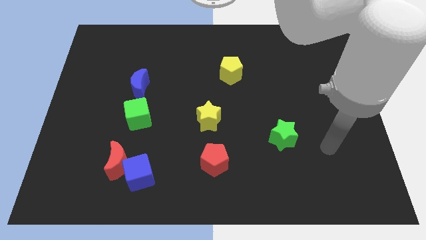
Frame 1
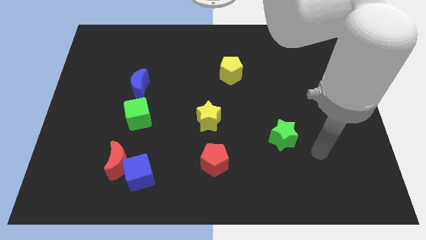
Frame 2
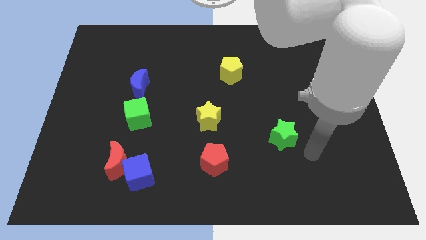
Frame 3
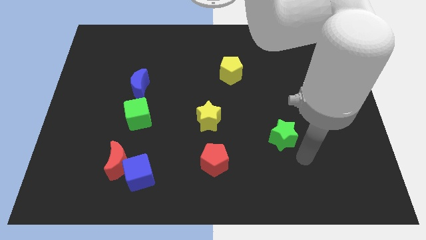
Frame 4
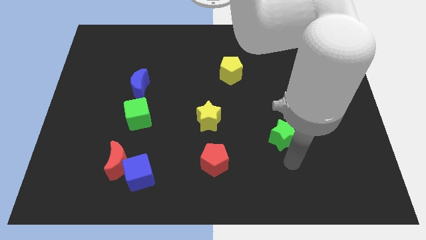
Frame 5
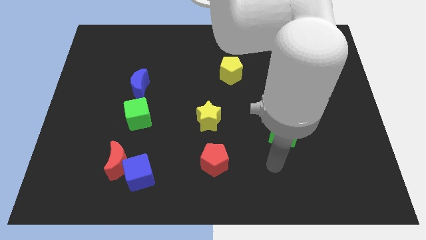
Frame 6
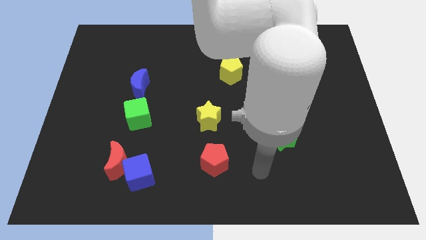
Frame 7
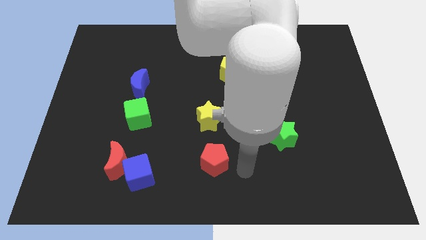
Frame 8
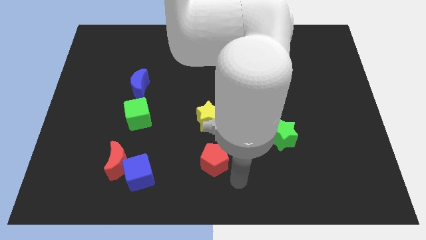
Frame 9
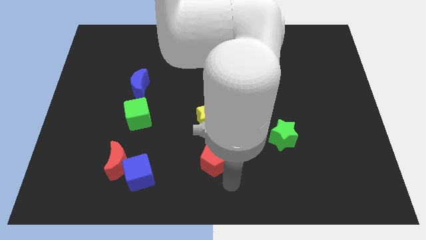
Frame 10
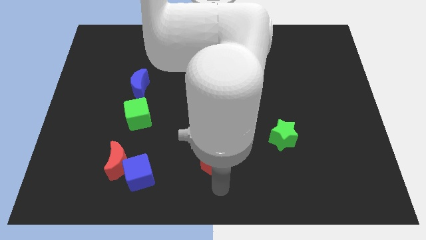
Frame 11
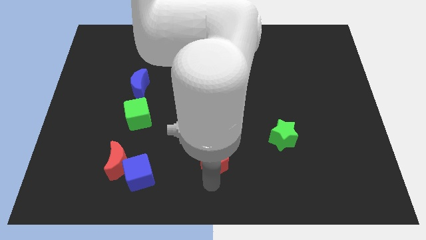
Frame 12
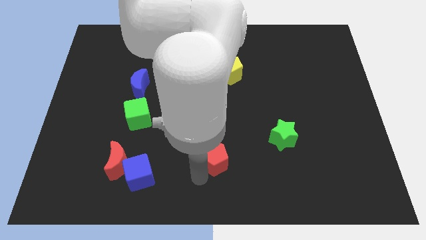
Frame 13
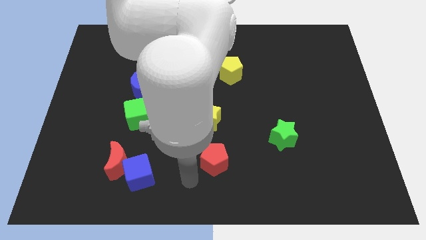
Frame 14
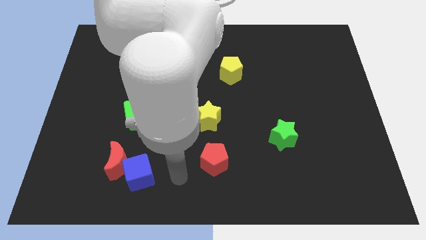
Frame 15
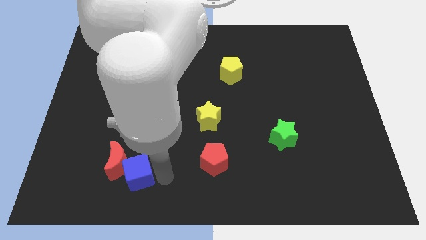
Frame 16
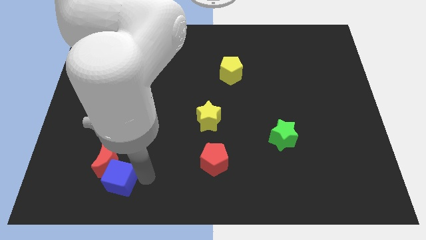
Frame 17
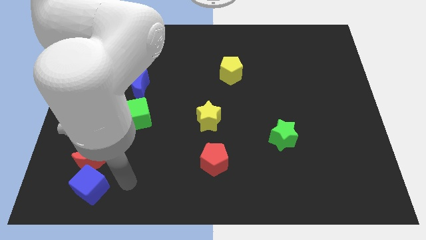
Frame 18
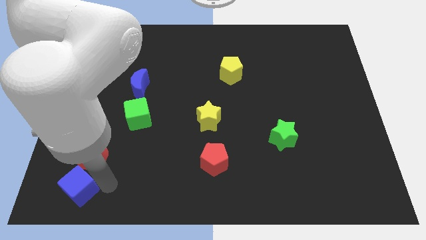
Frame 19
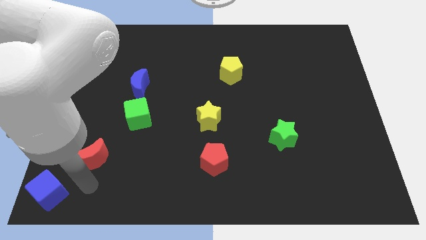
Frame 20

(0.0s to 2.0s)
move the red moon away from the blue cube

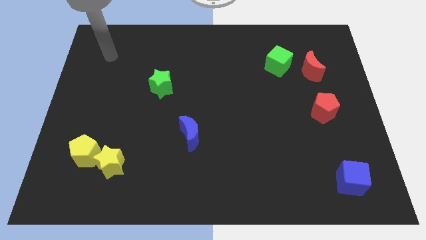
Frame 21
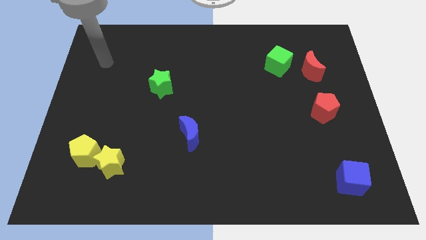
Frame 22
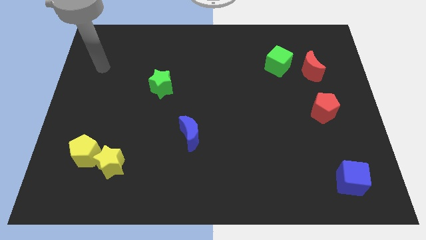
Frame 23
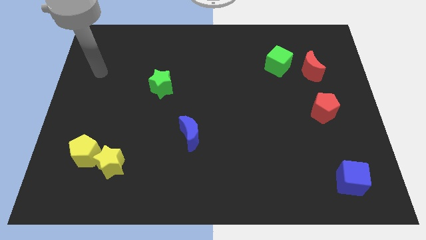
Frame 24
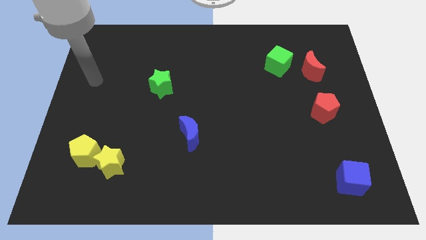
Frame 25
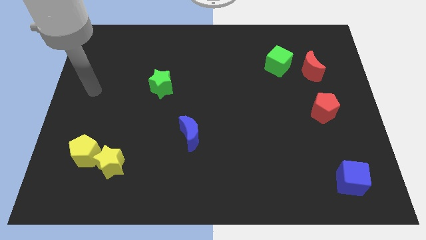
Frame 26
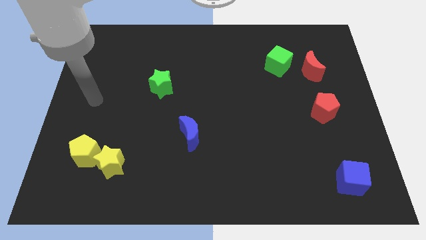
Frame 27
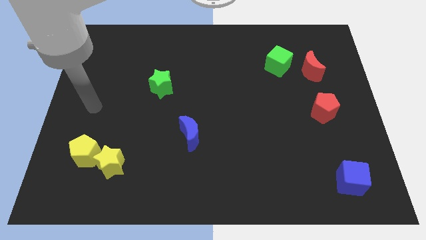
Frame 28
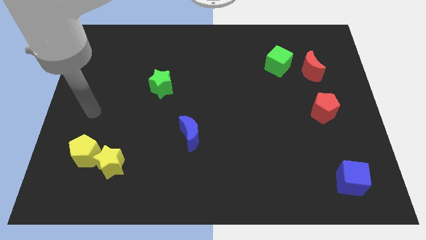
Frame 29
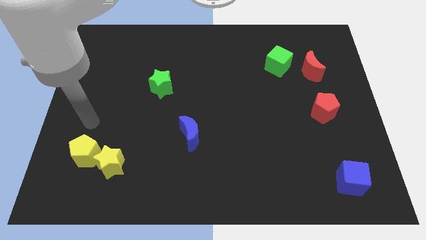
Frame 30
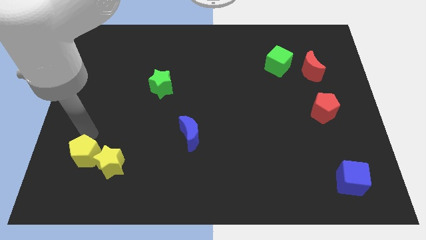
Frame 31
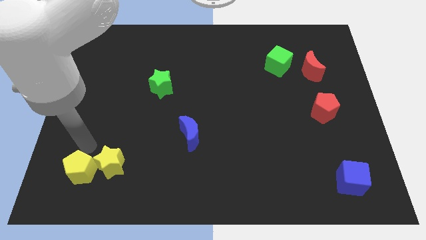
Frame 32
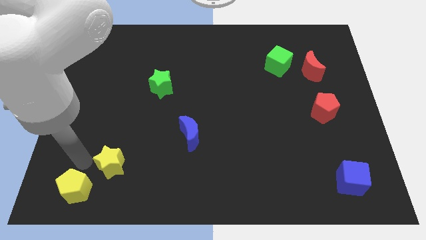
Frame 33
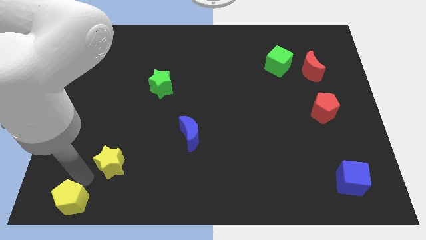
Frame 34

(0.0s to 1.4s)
pull the yellow star apart from the yellow pentagon

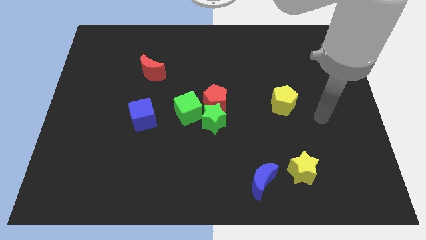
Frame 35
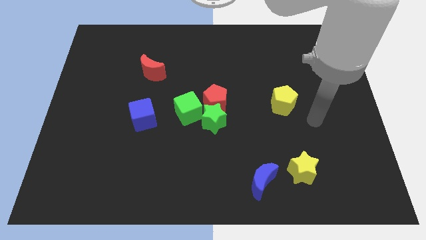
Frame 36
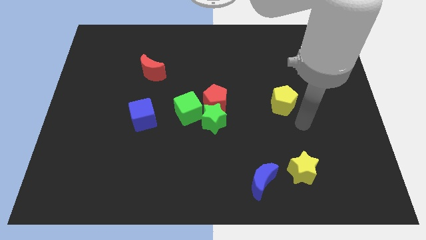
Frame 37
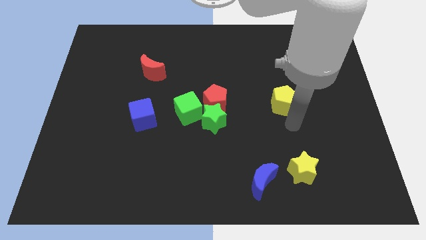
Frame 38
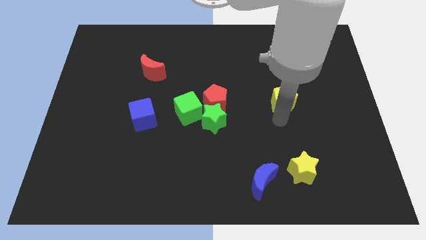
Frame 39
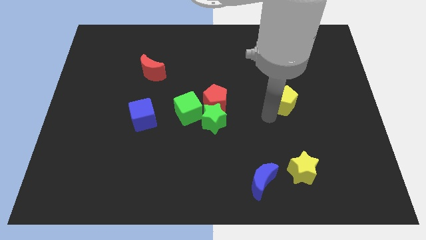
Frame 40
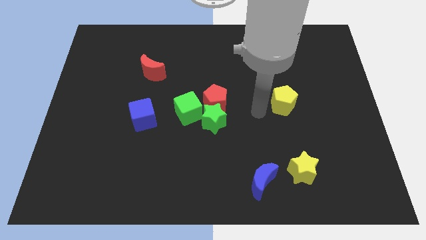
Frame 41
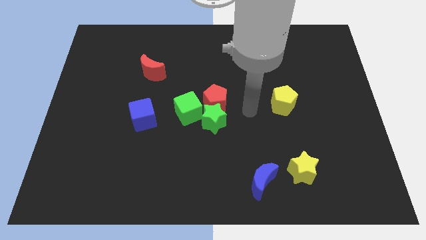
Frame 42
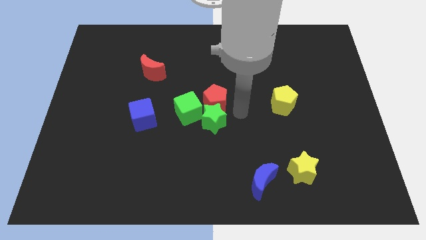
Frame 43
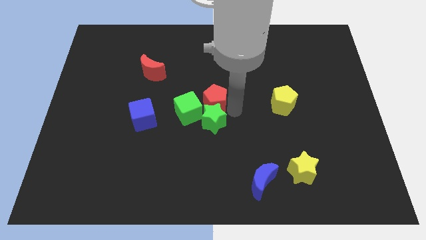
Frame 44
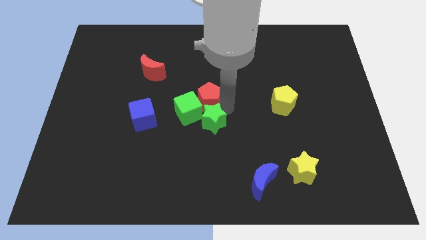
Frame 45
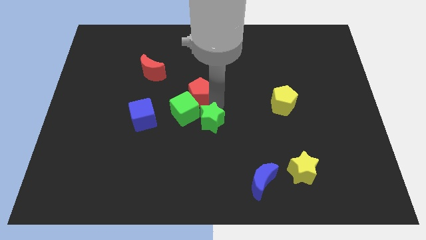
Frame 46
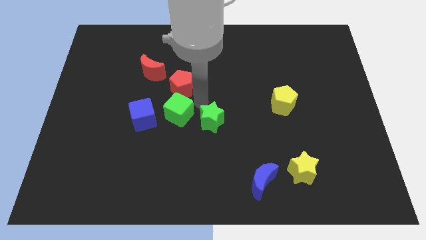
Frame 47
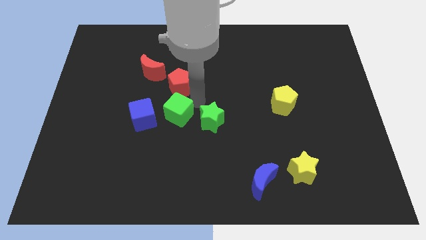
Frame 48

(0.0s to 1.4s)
pull the green star apart from the red pentagon and green cube

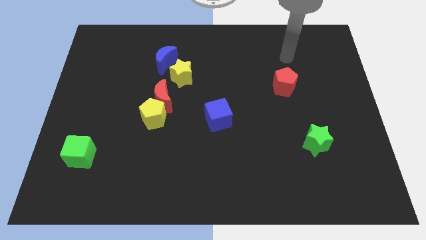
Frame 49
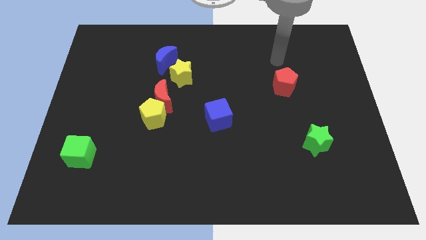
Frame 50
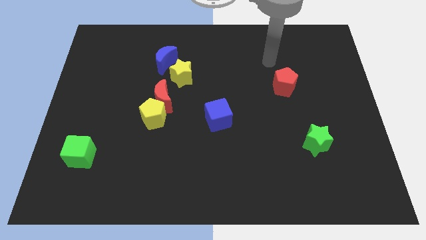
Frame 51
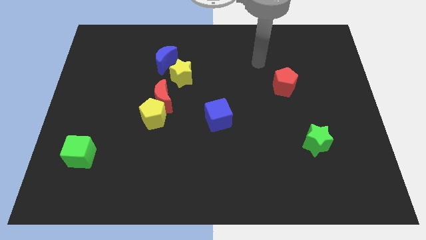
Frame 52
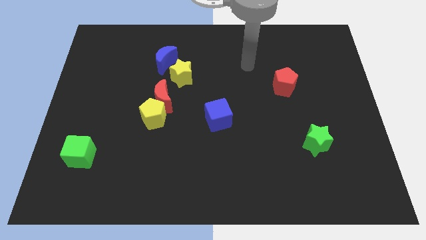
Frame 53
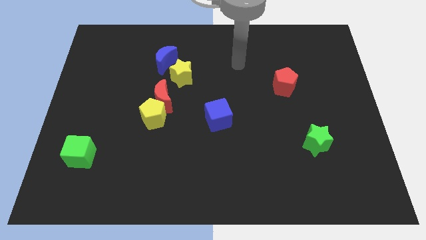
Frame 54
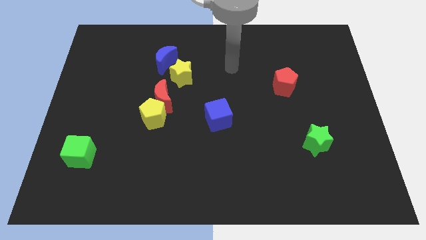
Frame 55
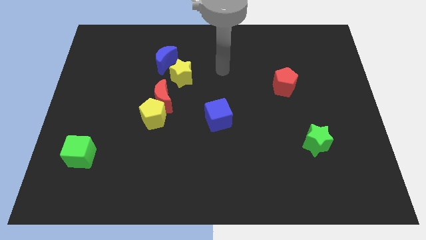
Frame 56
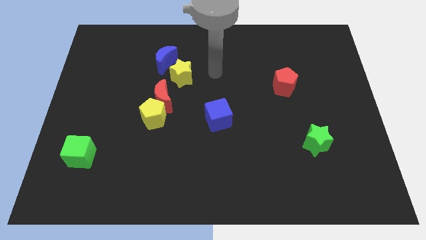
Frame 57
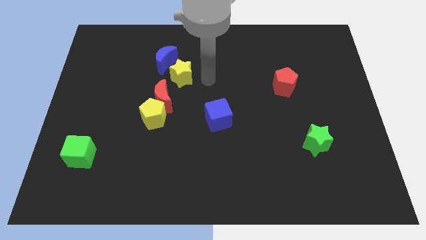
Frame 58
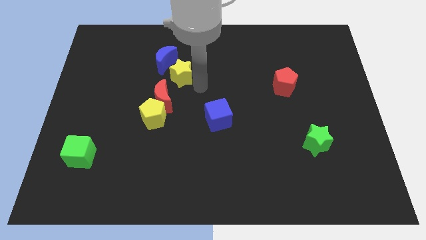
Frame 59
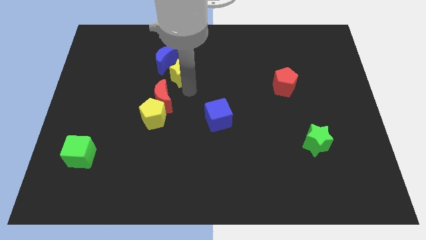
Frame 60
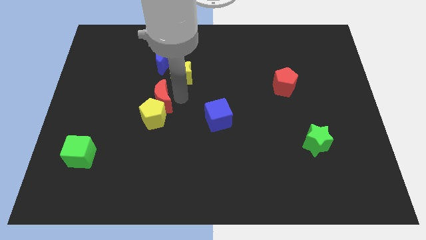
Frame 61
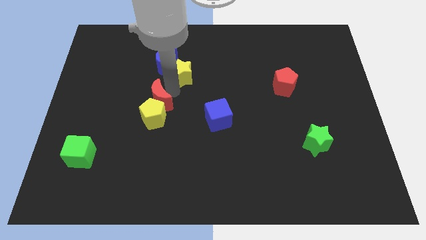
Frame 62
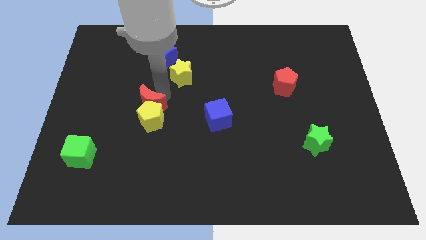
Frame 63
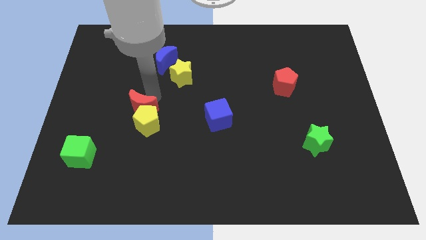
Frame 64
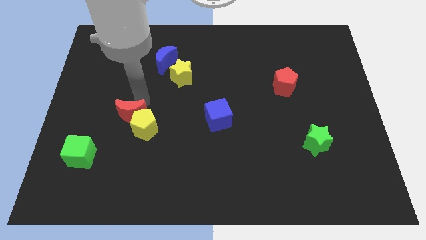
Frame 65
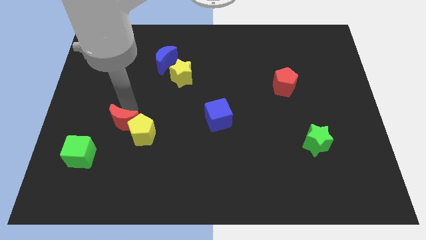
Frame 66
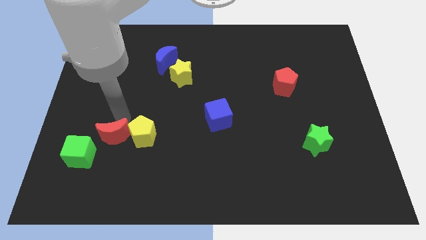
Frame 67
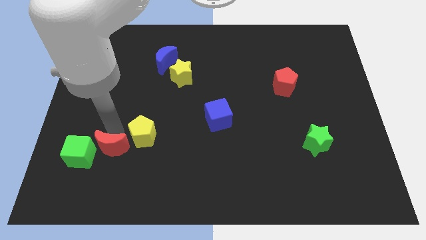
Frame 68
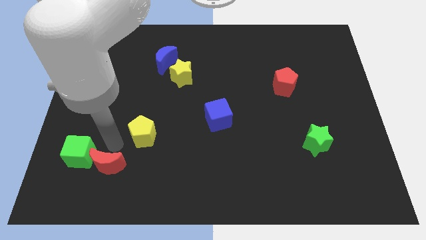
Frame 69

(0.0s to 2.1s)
separate the yellow pentagon from the red moon

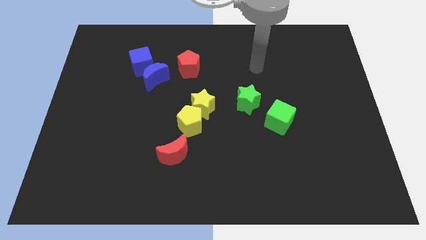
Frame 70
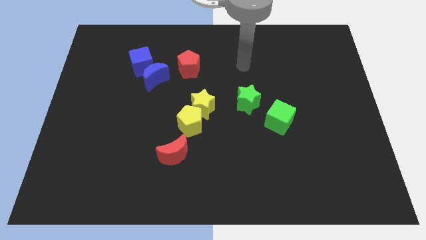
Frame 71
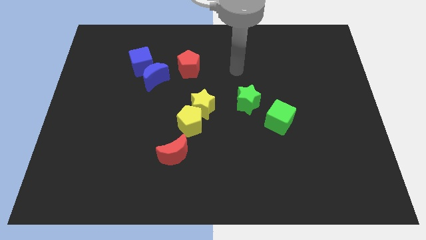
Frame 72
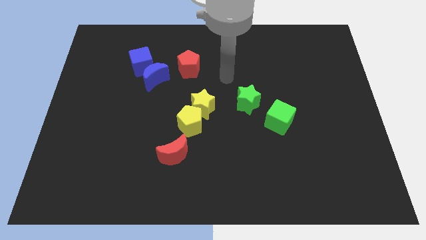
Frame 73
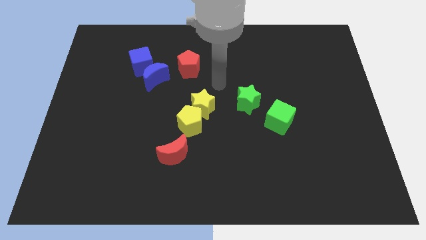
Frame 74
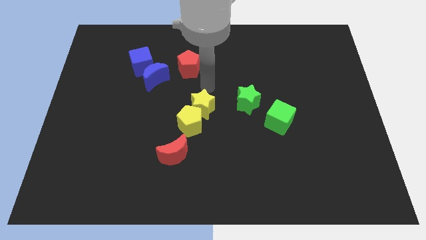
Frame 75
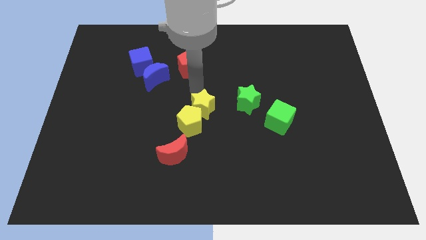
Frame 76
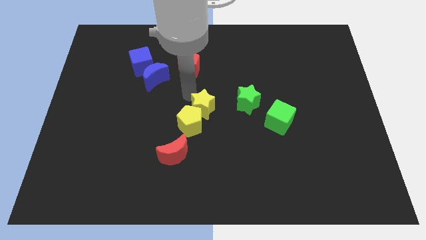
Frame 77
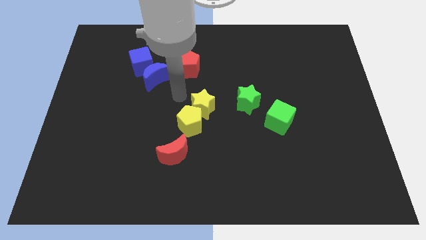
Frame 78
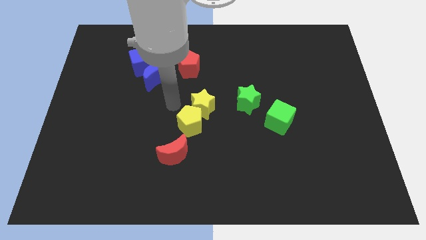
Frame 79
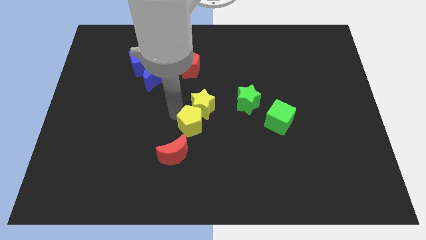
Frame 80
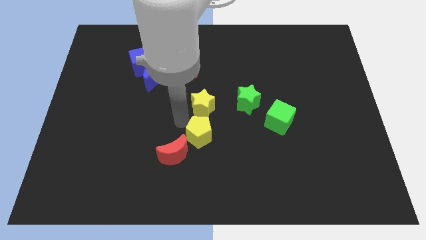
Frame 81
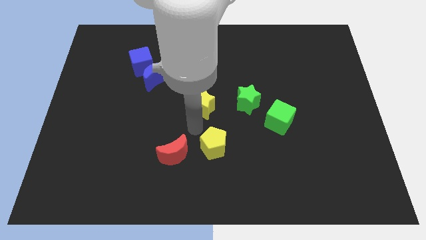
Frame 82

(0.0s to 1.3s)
move the yellow star away from the yellow pentagon

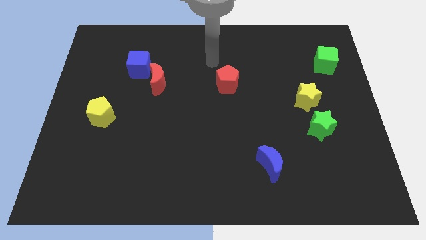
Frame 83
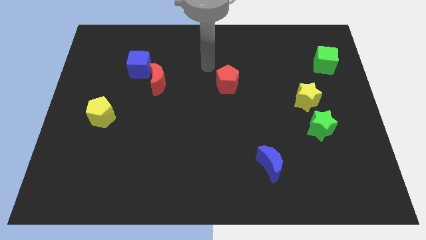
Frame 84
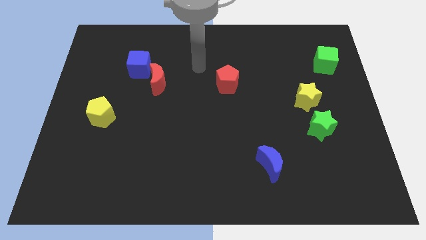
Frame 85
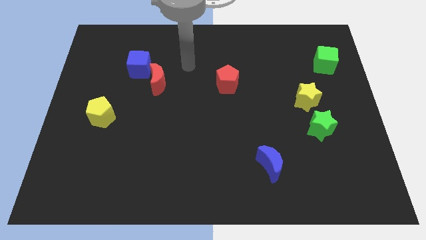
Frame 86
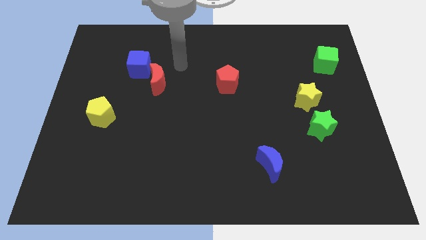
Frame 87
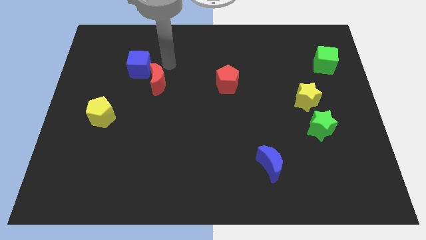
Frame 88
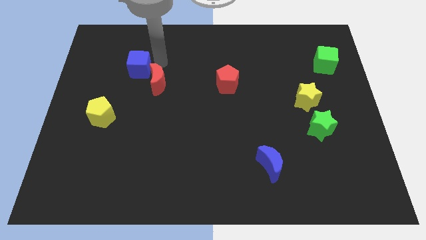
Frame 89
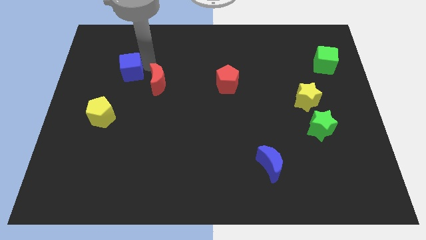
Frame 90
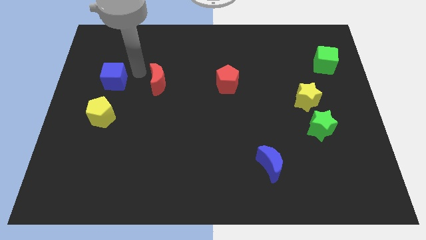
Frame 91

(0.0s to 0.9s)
separate the red moon from the blue cube

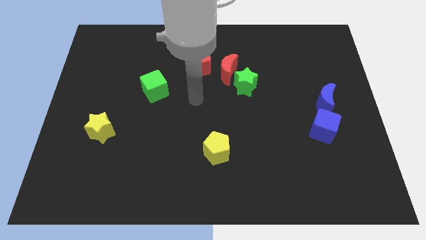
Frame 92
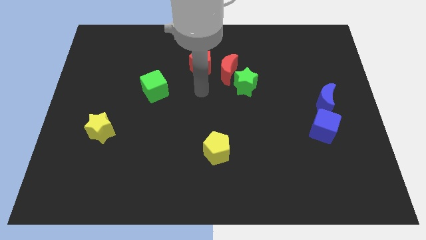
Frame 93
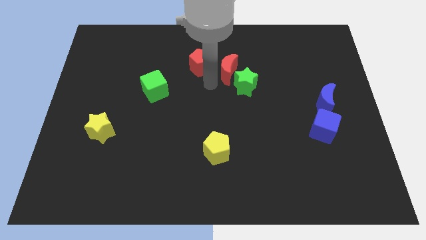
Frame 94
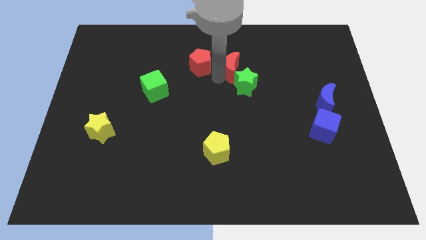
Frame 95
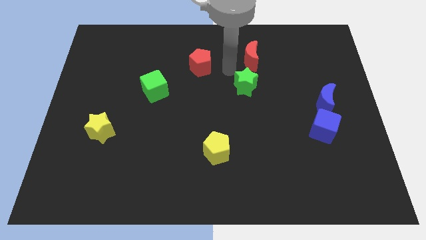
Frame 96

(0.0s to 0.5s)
pull the green star apart from the red moon
